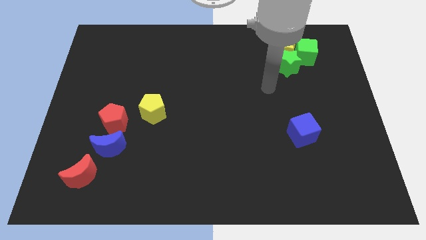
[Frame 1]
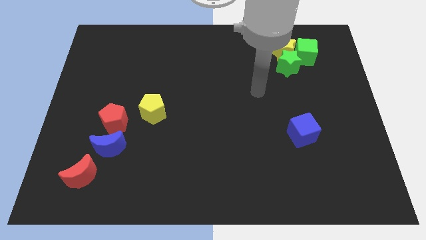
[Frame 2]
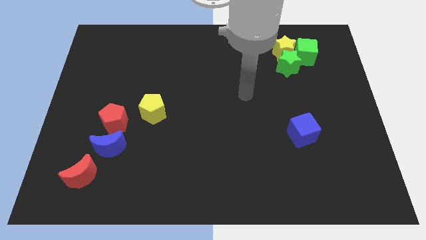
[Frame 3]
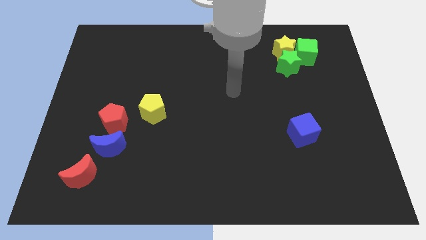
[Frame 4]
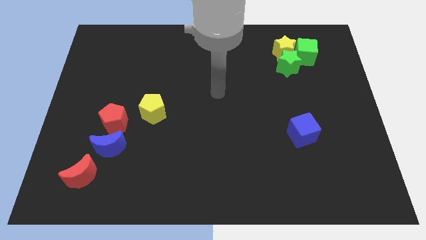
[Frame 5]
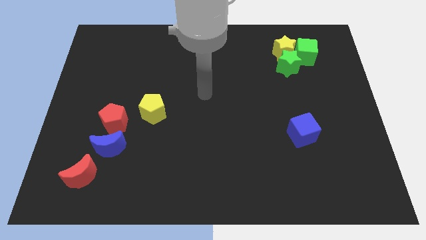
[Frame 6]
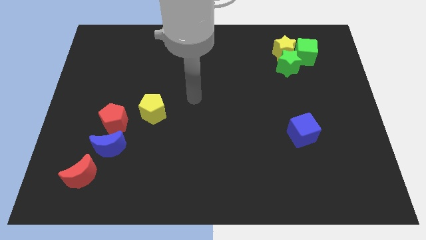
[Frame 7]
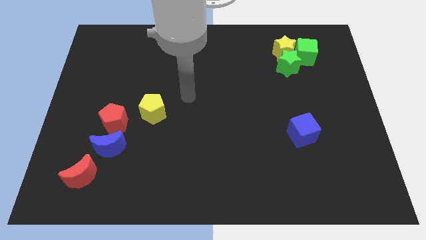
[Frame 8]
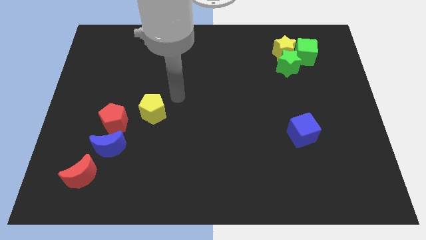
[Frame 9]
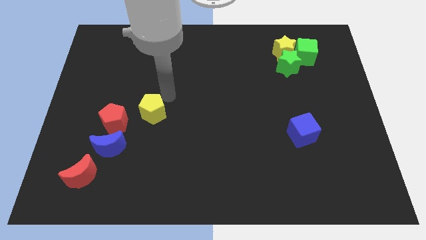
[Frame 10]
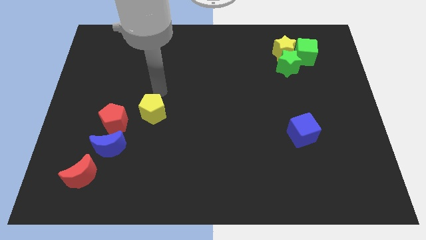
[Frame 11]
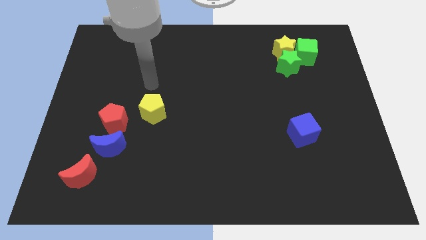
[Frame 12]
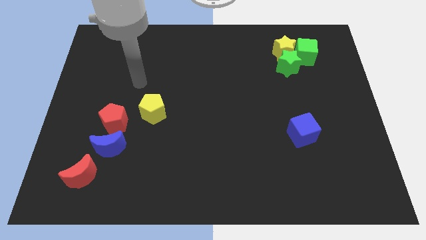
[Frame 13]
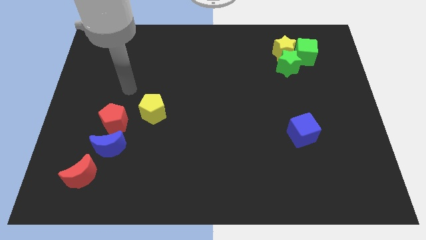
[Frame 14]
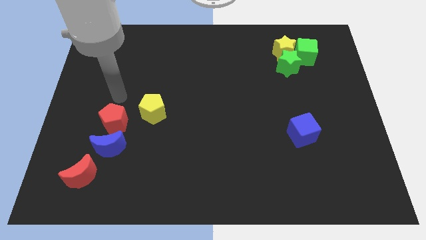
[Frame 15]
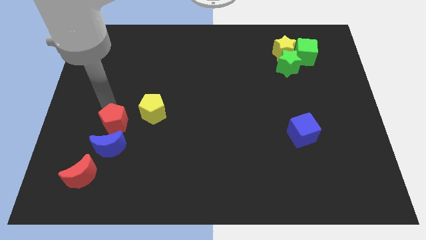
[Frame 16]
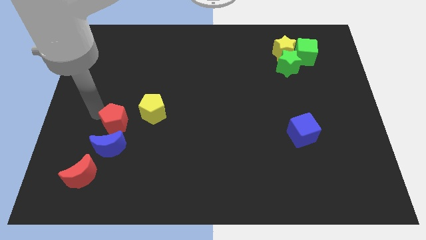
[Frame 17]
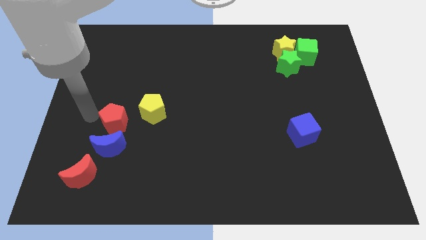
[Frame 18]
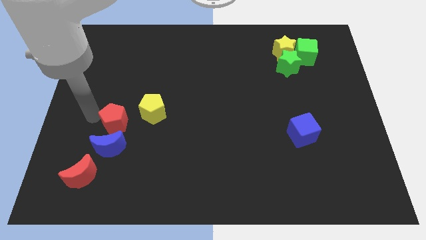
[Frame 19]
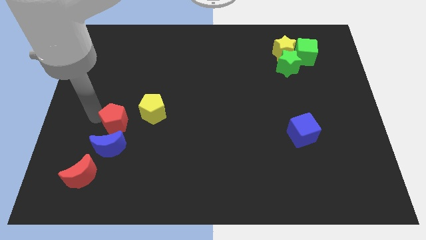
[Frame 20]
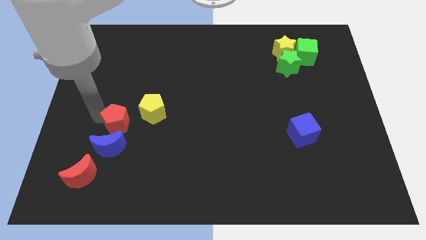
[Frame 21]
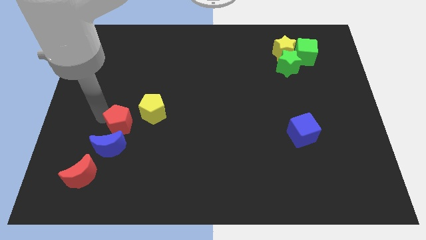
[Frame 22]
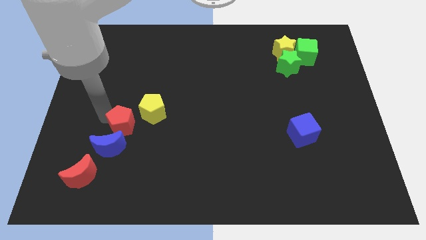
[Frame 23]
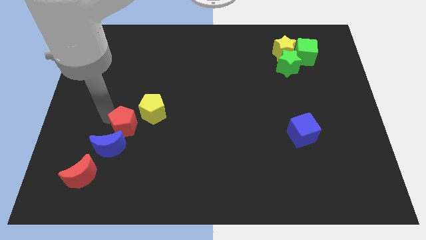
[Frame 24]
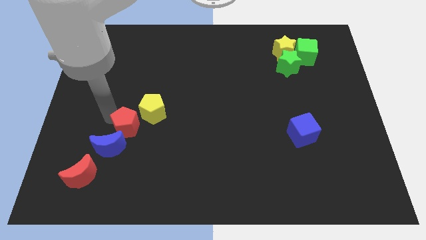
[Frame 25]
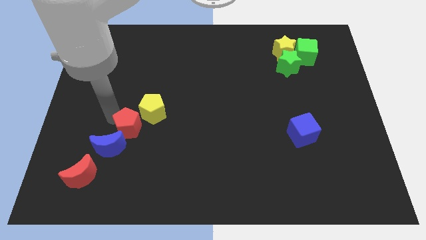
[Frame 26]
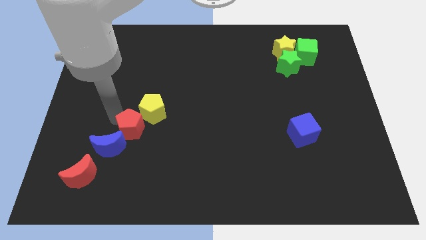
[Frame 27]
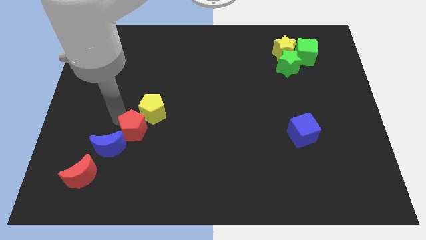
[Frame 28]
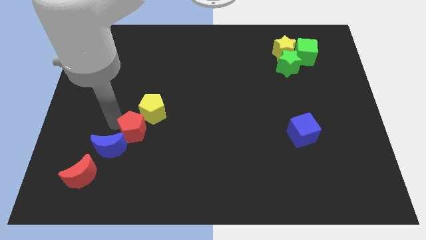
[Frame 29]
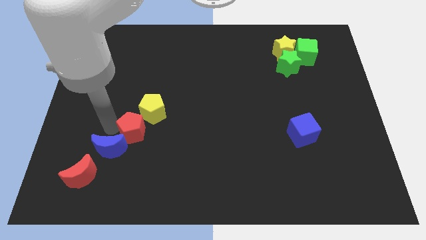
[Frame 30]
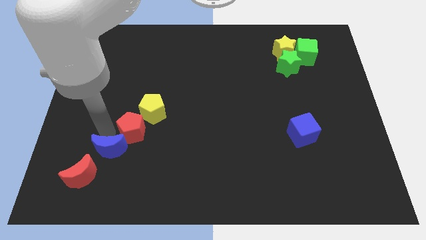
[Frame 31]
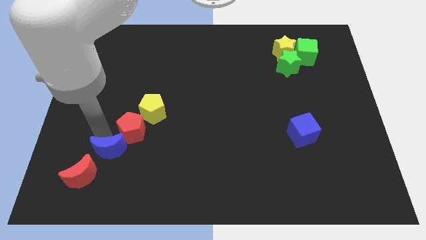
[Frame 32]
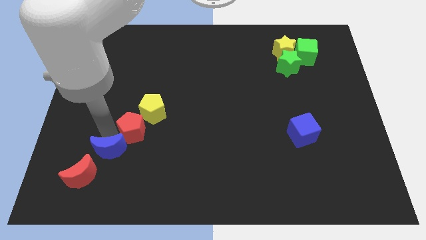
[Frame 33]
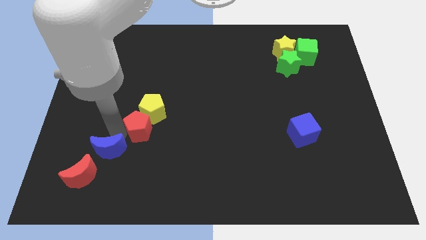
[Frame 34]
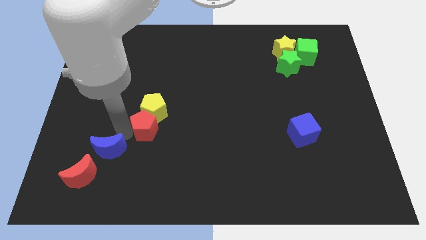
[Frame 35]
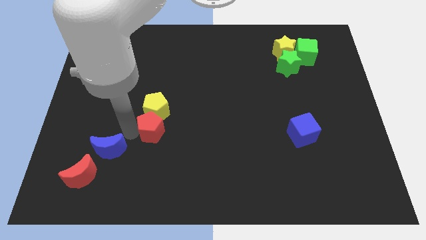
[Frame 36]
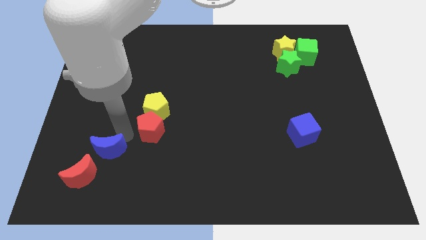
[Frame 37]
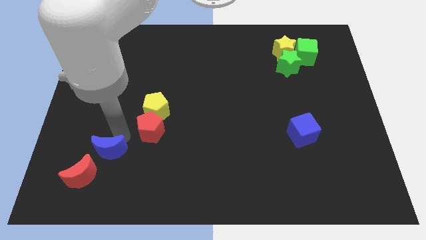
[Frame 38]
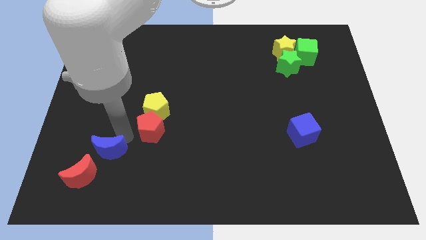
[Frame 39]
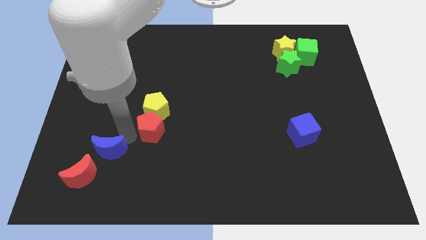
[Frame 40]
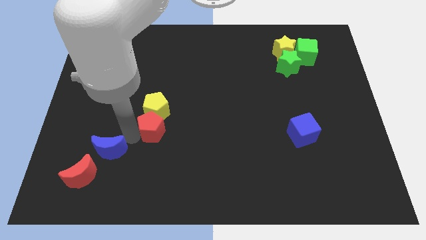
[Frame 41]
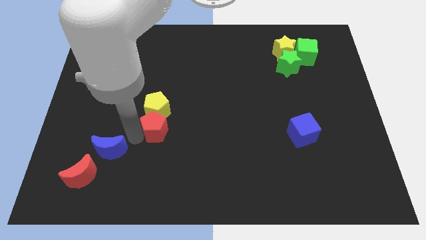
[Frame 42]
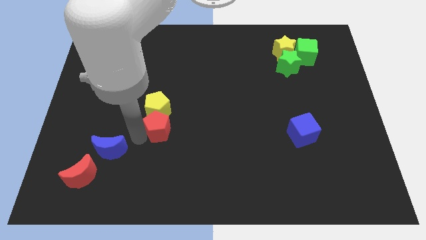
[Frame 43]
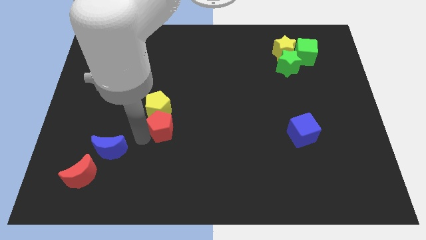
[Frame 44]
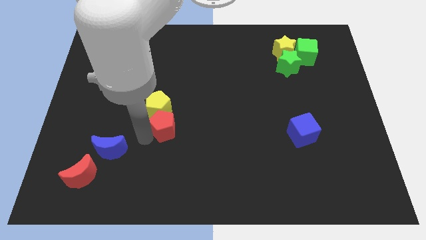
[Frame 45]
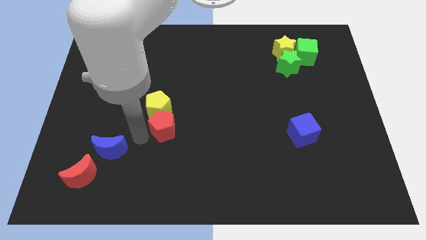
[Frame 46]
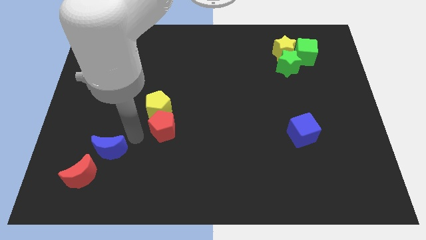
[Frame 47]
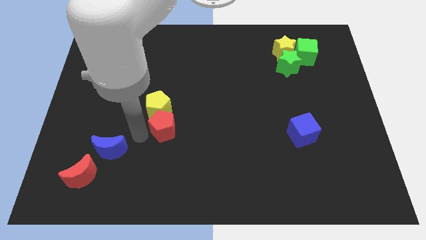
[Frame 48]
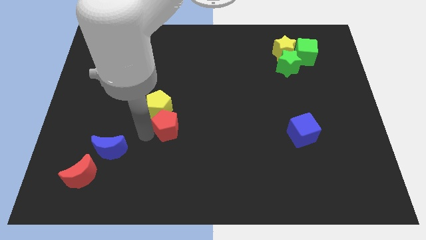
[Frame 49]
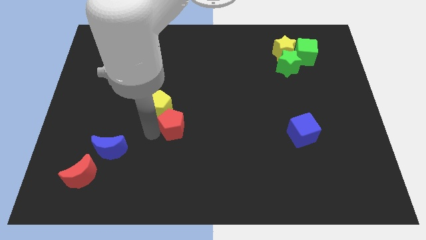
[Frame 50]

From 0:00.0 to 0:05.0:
move the red pentagon to the center

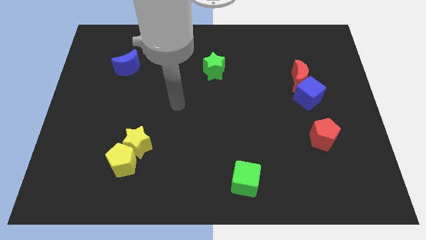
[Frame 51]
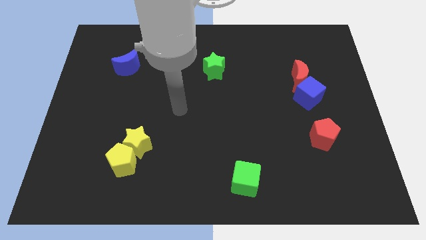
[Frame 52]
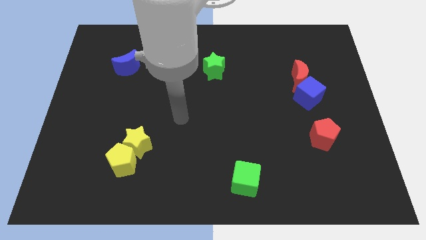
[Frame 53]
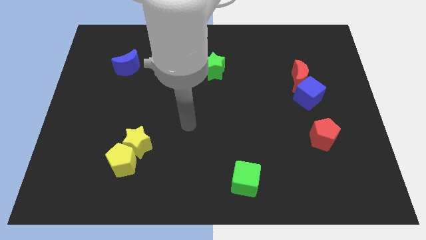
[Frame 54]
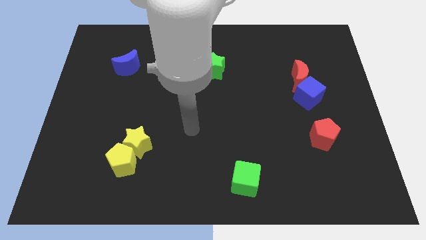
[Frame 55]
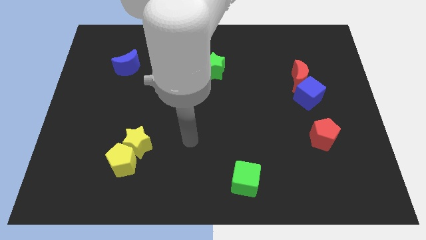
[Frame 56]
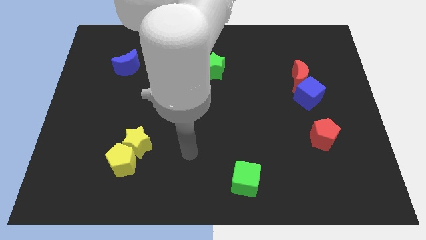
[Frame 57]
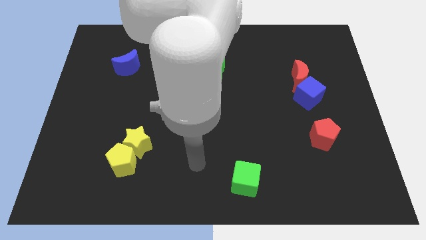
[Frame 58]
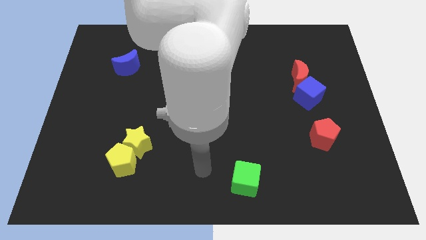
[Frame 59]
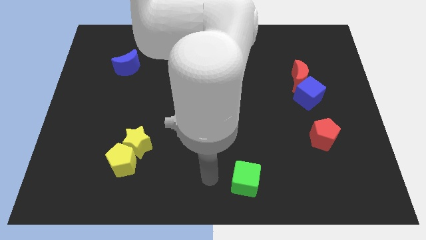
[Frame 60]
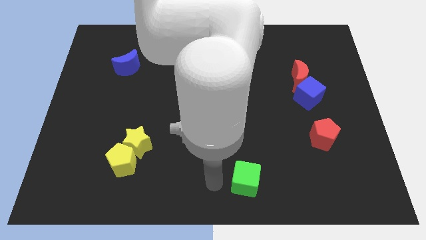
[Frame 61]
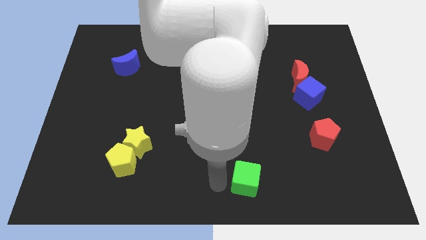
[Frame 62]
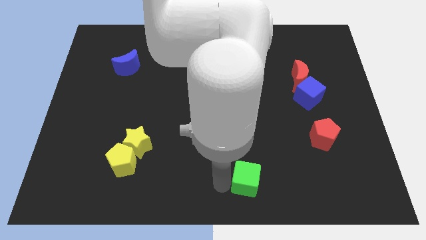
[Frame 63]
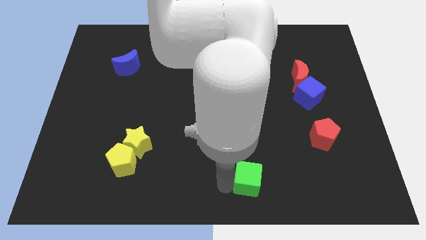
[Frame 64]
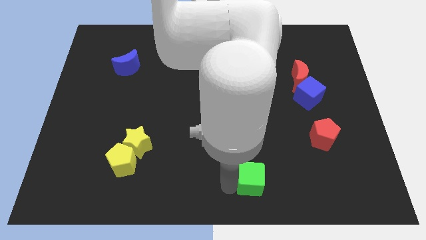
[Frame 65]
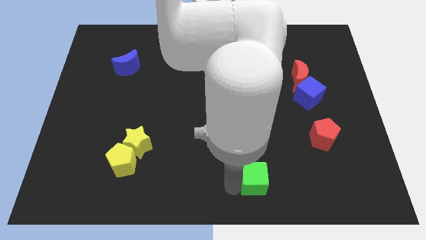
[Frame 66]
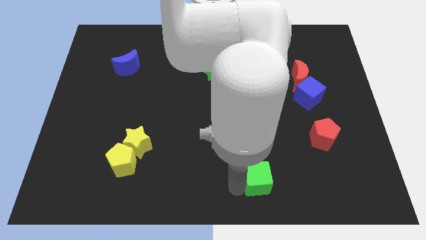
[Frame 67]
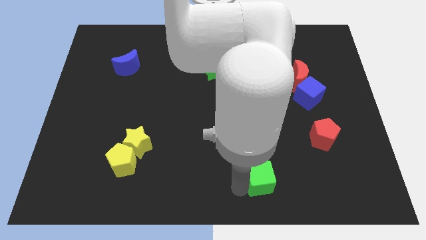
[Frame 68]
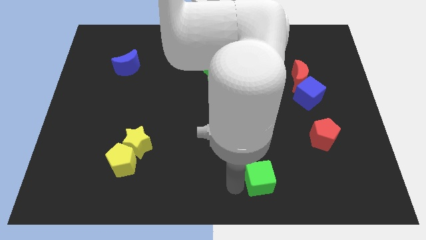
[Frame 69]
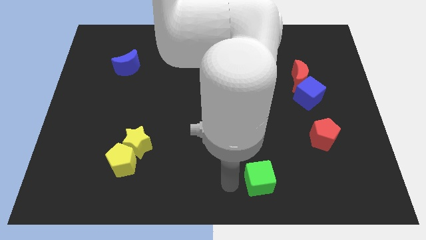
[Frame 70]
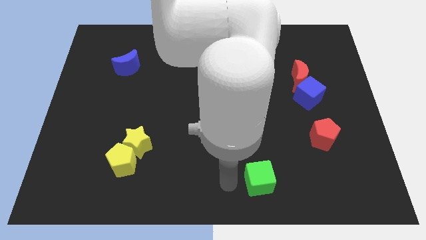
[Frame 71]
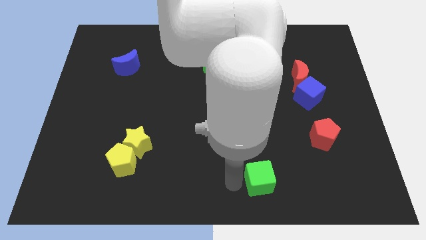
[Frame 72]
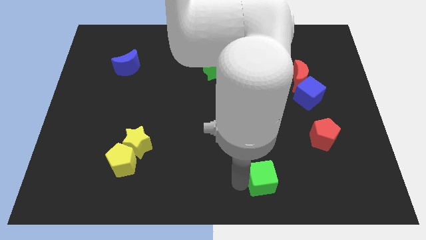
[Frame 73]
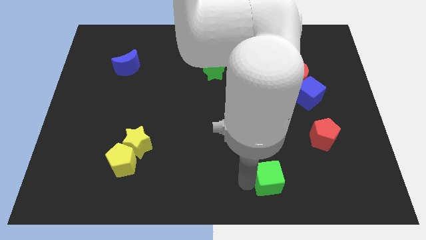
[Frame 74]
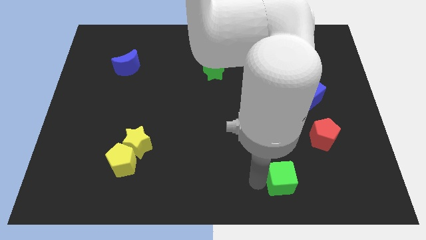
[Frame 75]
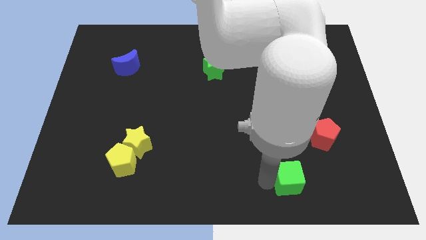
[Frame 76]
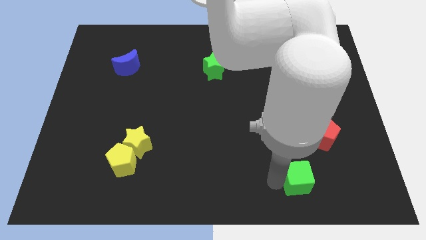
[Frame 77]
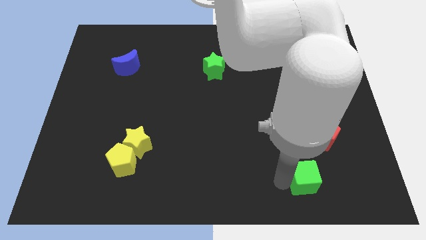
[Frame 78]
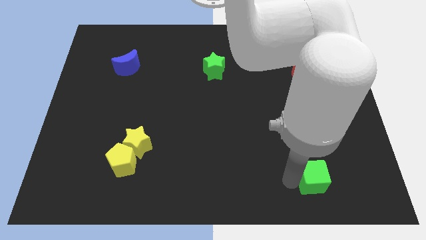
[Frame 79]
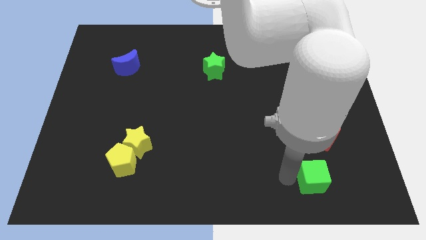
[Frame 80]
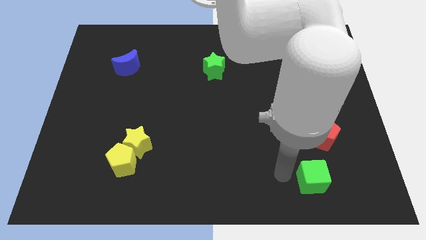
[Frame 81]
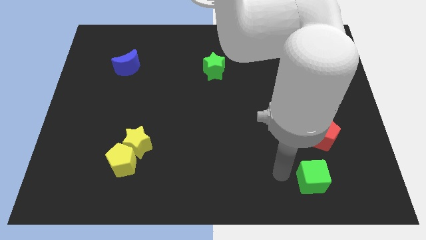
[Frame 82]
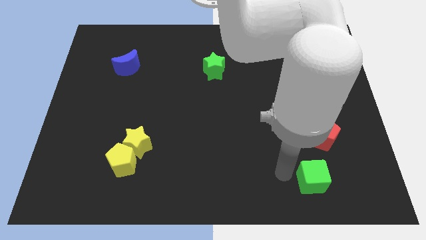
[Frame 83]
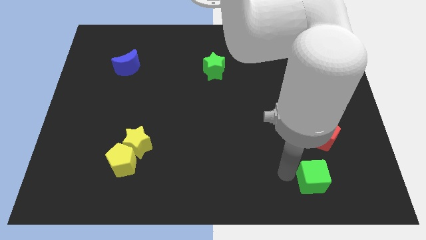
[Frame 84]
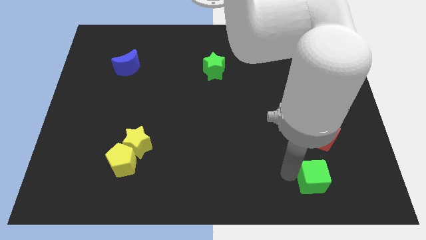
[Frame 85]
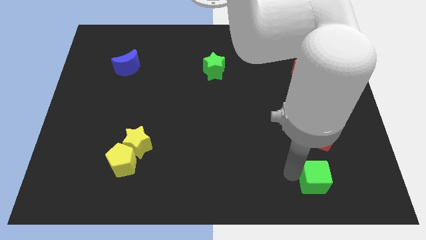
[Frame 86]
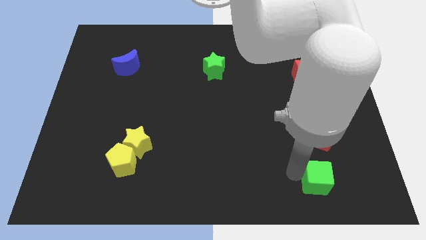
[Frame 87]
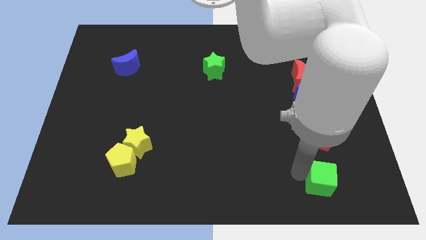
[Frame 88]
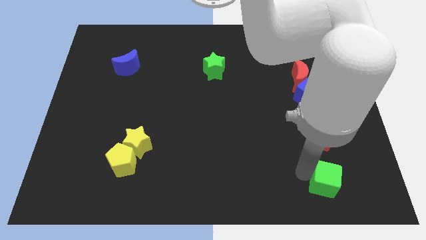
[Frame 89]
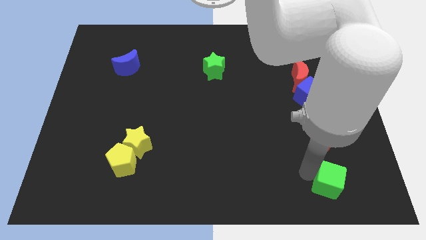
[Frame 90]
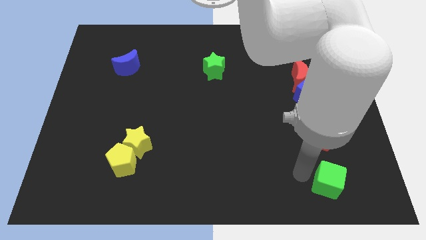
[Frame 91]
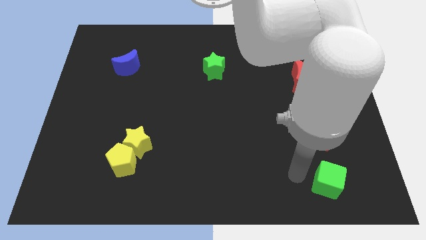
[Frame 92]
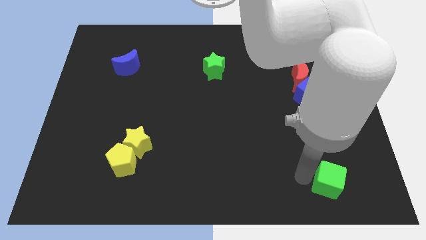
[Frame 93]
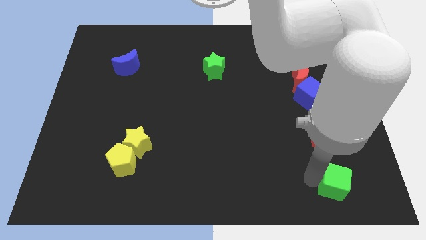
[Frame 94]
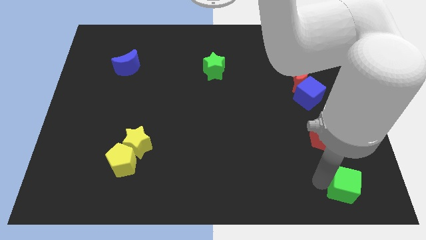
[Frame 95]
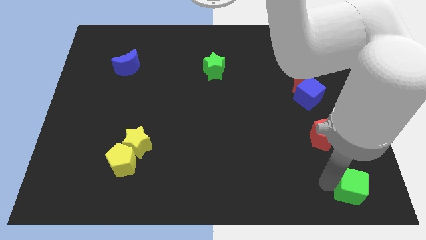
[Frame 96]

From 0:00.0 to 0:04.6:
slide the green cube to the bottom right
